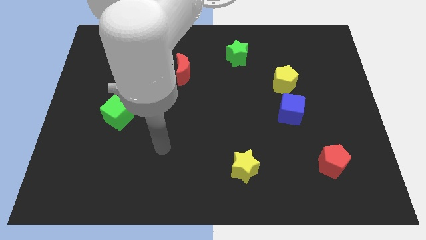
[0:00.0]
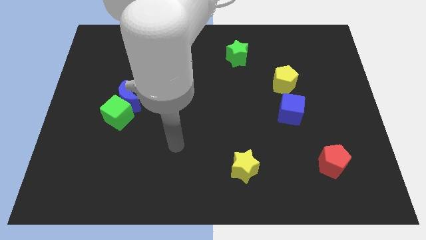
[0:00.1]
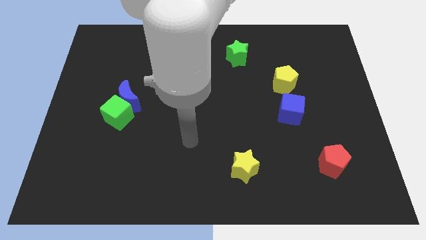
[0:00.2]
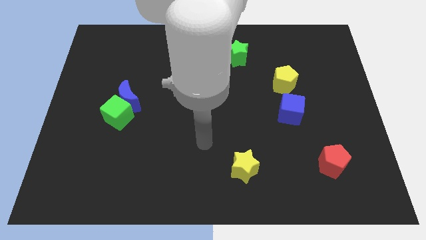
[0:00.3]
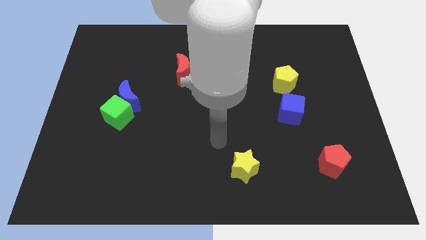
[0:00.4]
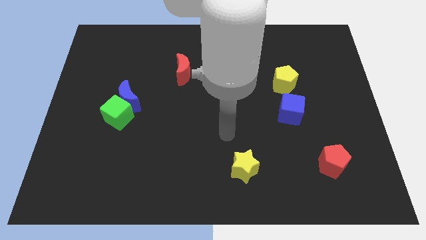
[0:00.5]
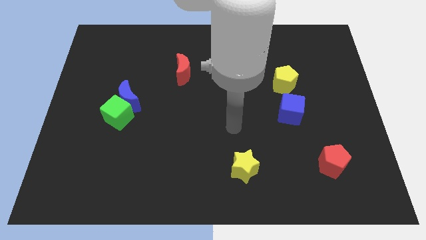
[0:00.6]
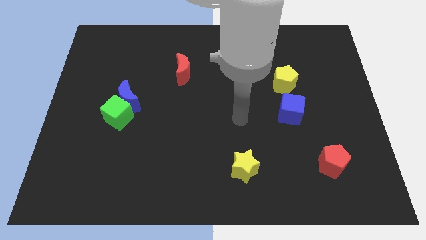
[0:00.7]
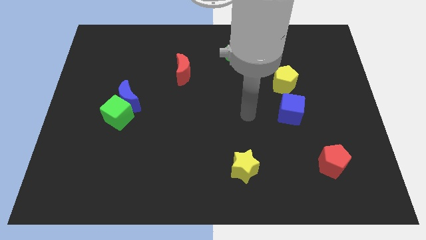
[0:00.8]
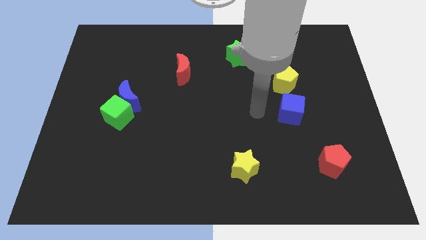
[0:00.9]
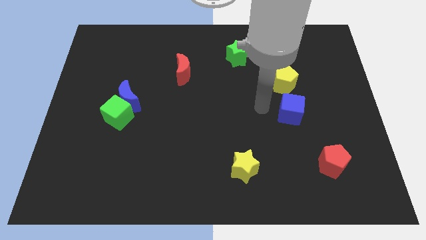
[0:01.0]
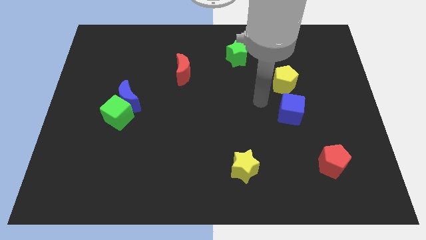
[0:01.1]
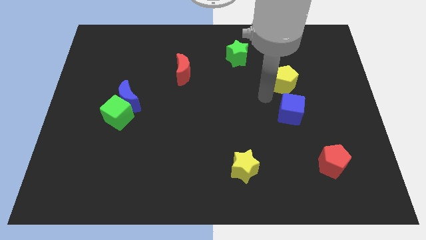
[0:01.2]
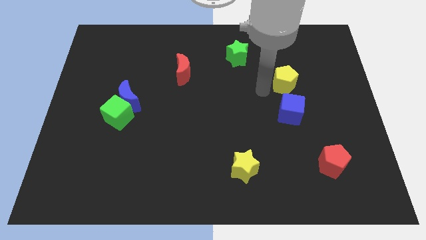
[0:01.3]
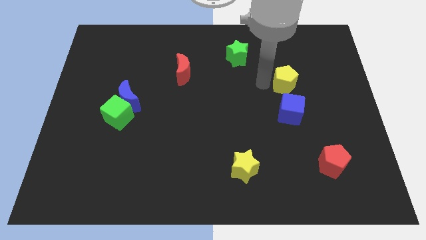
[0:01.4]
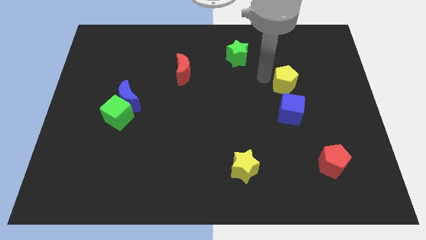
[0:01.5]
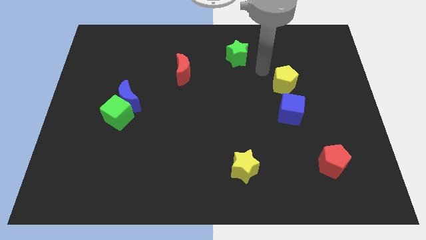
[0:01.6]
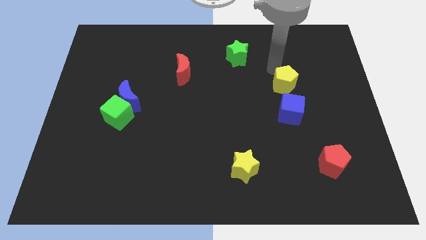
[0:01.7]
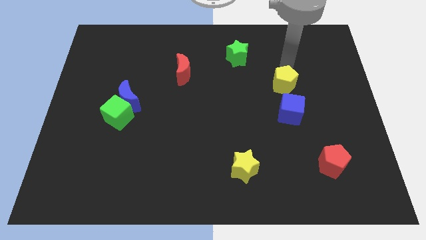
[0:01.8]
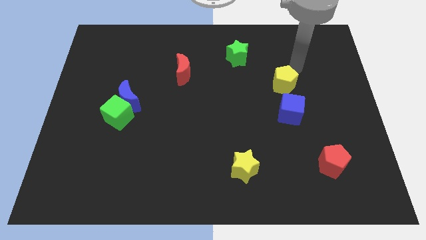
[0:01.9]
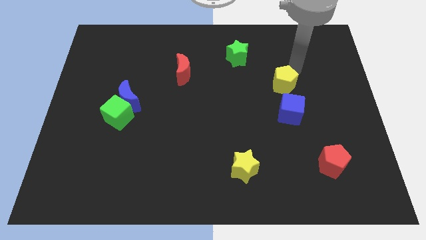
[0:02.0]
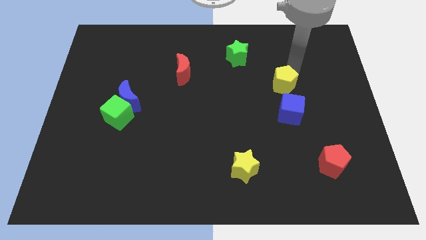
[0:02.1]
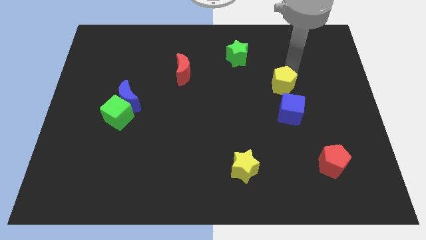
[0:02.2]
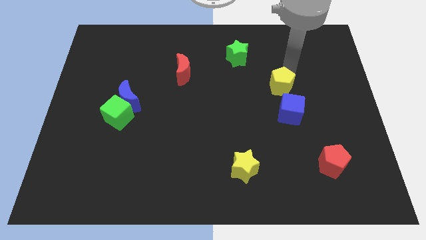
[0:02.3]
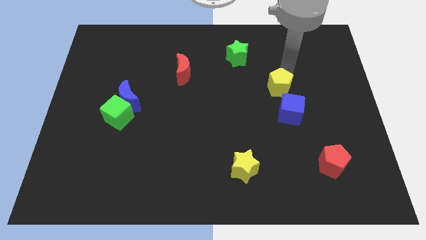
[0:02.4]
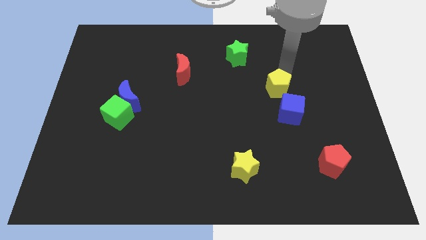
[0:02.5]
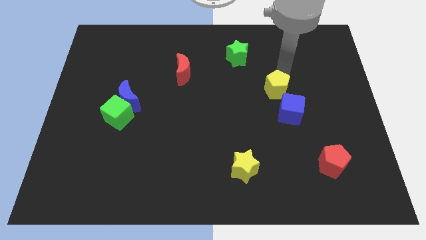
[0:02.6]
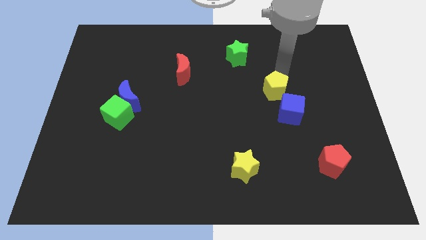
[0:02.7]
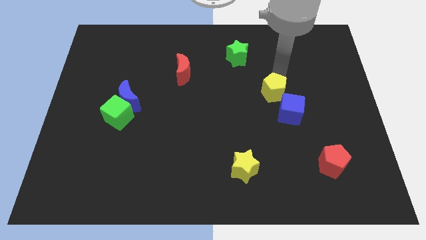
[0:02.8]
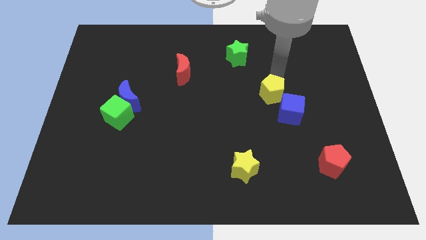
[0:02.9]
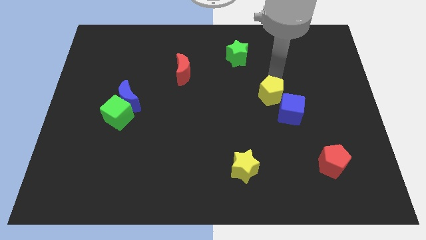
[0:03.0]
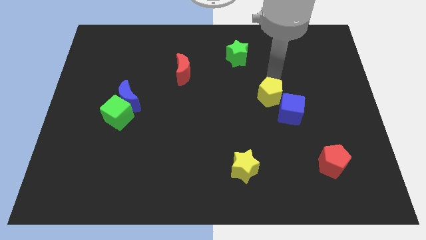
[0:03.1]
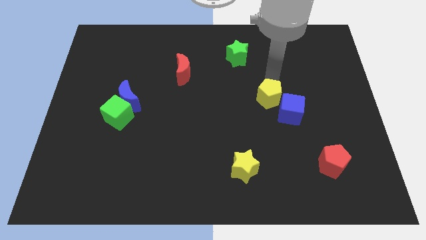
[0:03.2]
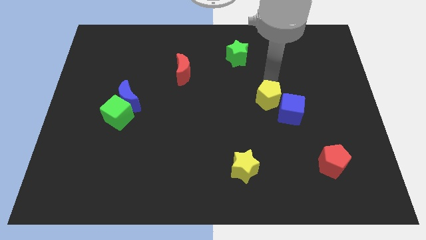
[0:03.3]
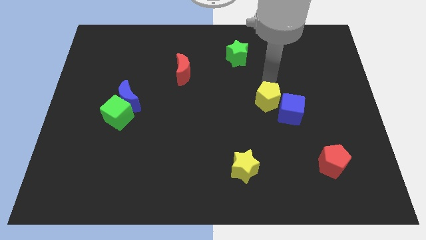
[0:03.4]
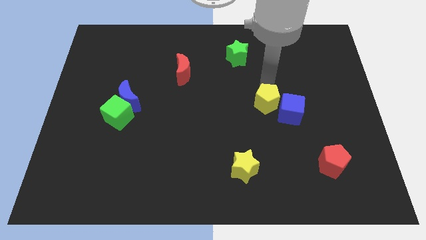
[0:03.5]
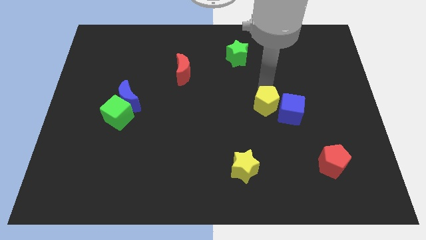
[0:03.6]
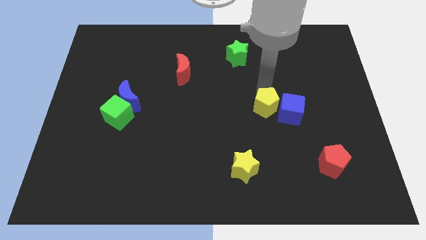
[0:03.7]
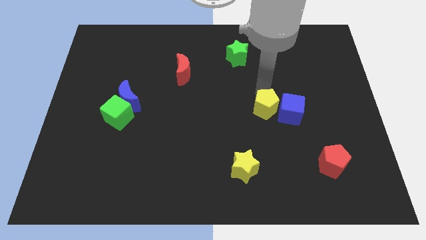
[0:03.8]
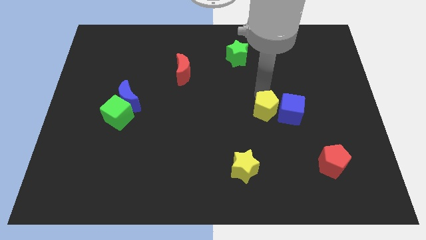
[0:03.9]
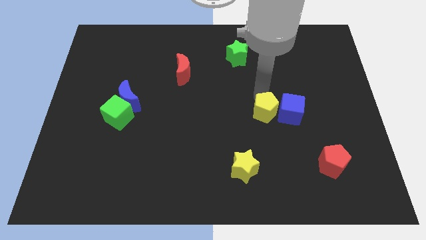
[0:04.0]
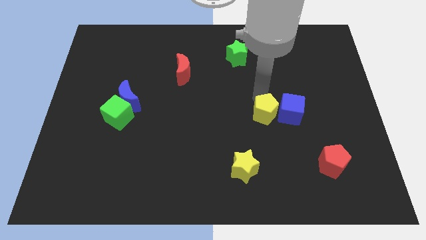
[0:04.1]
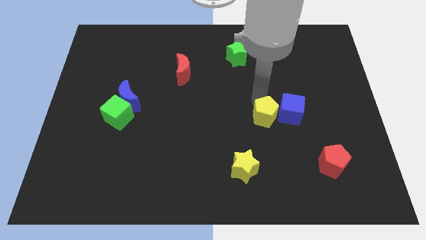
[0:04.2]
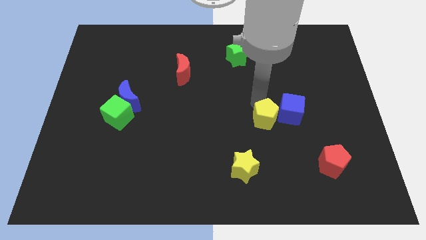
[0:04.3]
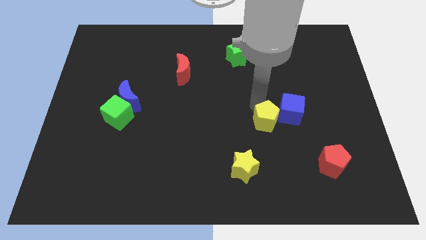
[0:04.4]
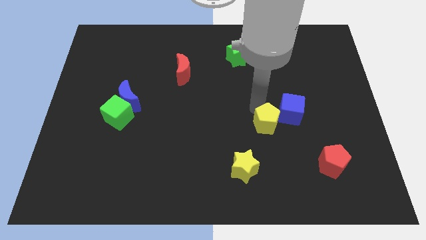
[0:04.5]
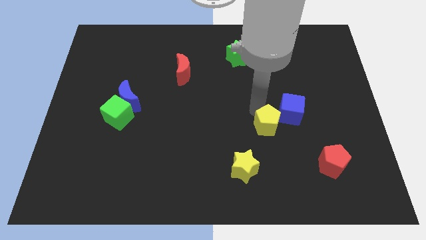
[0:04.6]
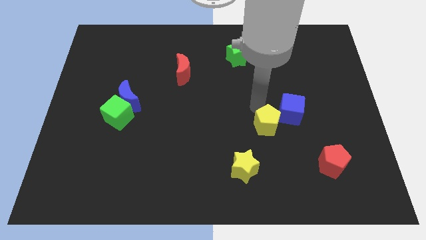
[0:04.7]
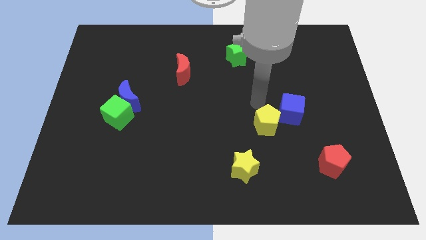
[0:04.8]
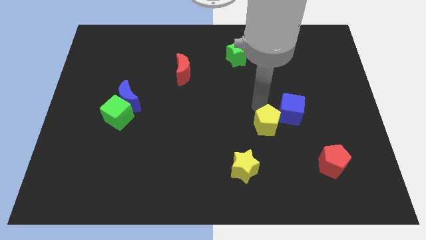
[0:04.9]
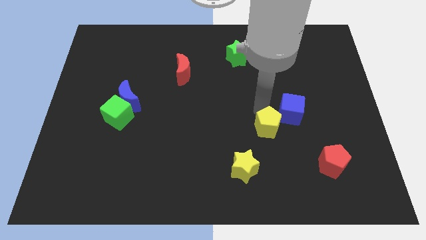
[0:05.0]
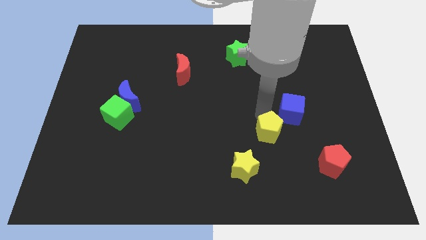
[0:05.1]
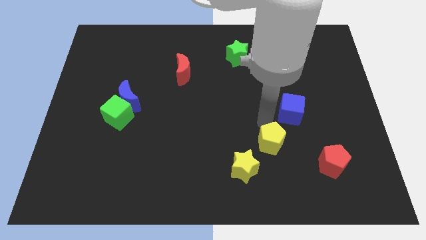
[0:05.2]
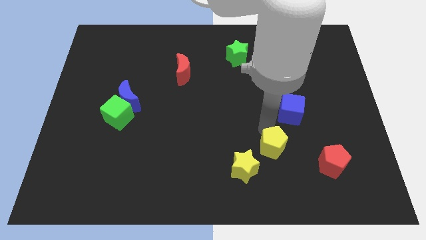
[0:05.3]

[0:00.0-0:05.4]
move the yellow pentagon left of the red pentagon
